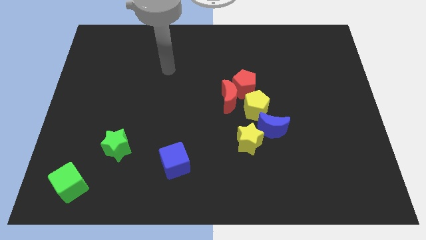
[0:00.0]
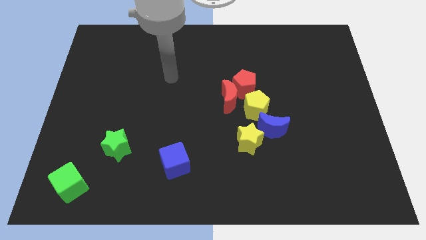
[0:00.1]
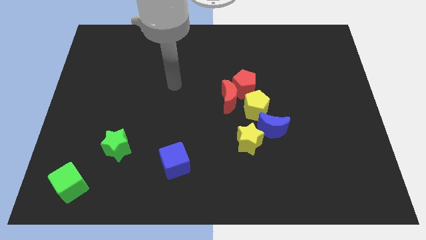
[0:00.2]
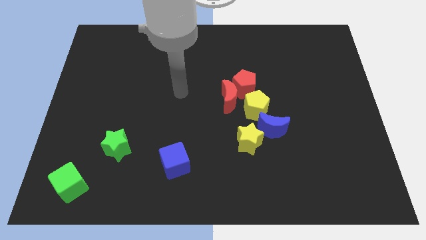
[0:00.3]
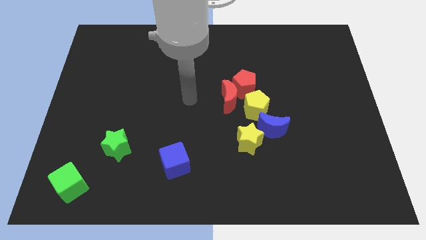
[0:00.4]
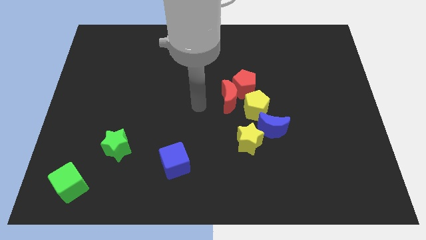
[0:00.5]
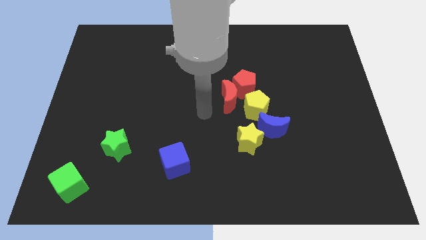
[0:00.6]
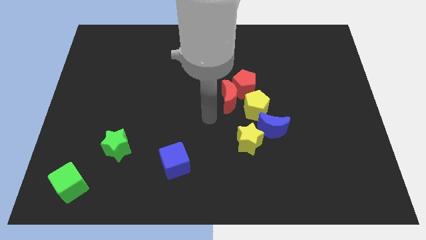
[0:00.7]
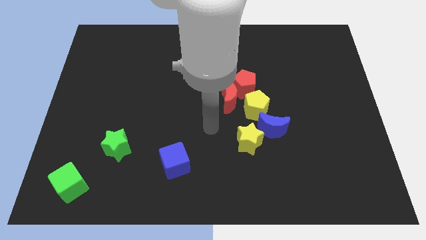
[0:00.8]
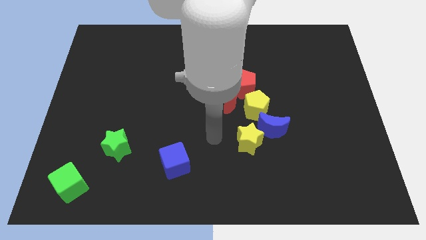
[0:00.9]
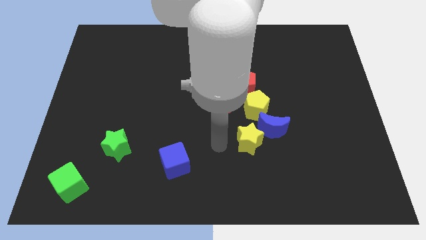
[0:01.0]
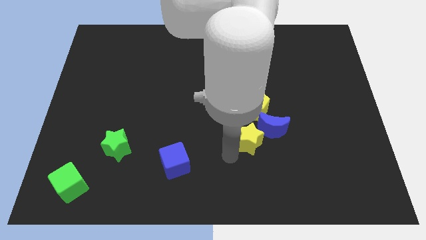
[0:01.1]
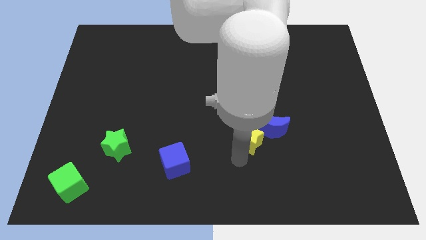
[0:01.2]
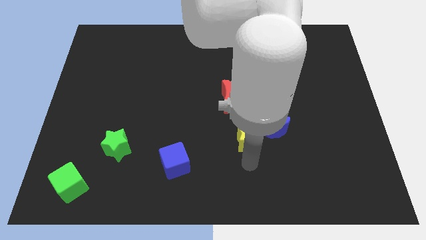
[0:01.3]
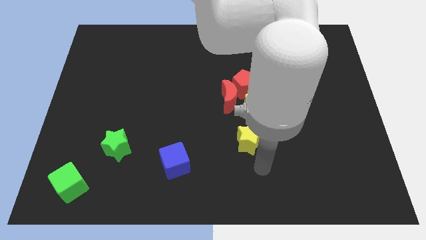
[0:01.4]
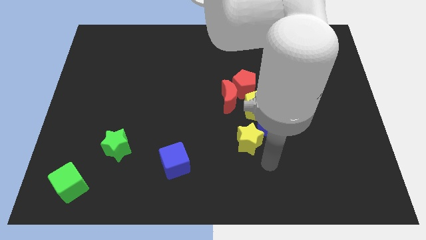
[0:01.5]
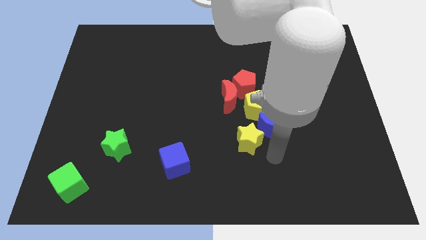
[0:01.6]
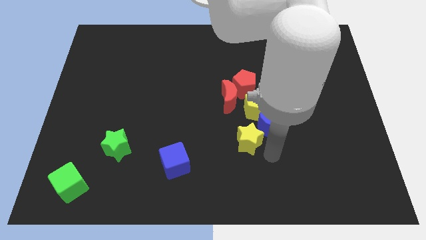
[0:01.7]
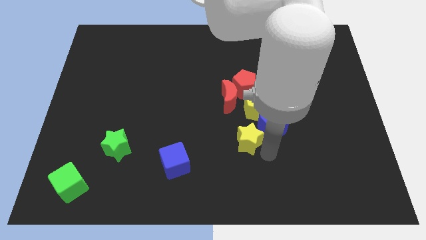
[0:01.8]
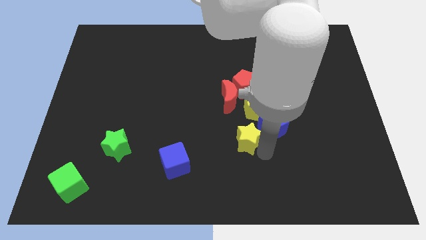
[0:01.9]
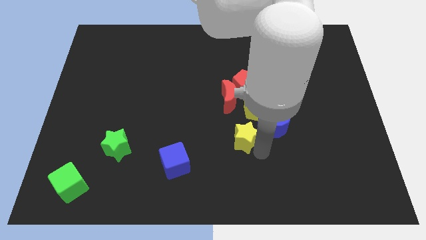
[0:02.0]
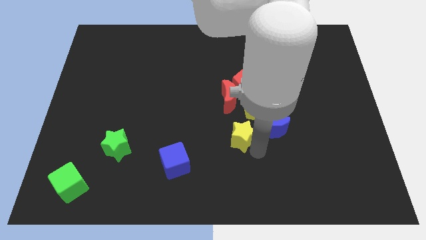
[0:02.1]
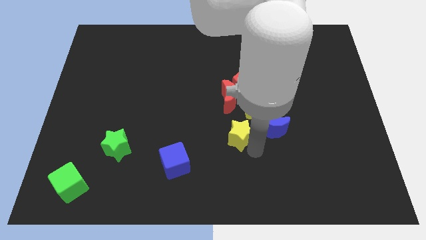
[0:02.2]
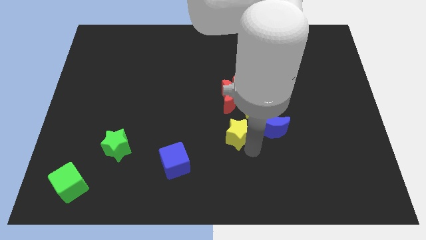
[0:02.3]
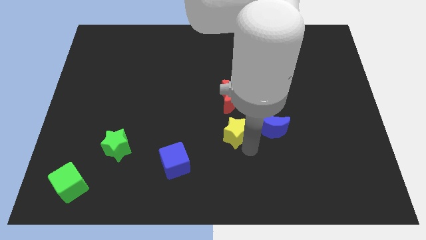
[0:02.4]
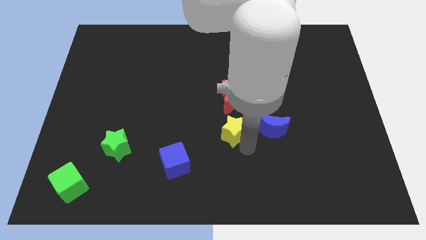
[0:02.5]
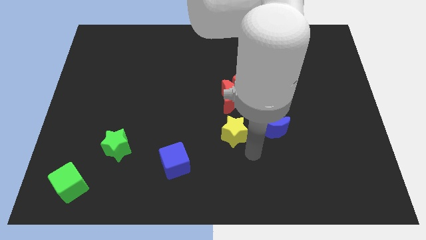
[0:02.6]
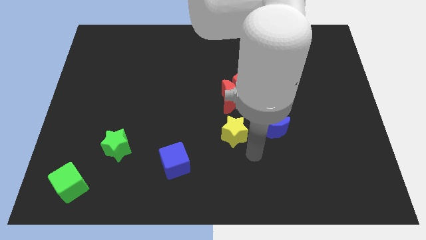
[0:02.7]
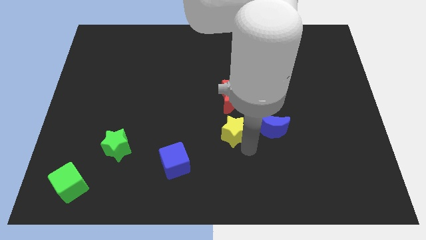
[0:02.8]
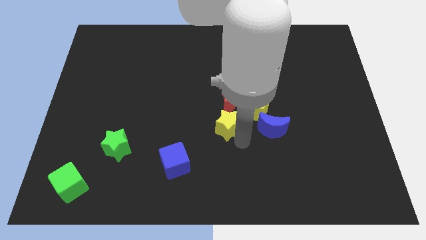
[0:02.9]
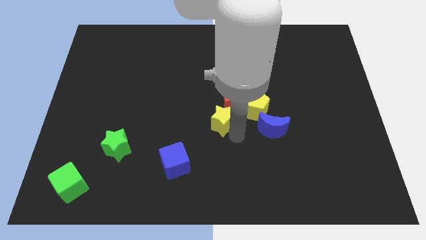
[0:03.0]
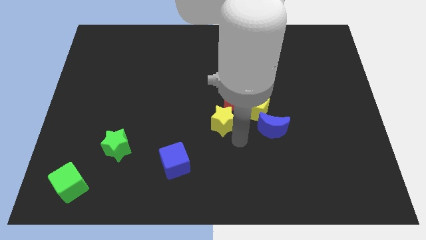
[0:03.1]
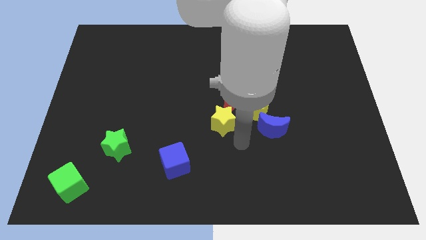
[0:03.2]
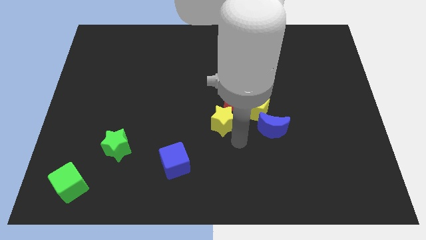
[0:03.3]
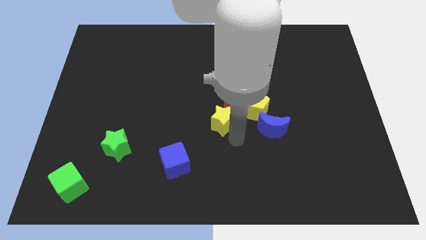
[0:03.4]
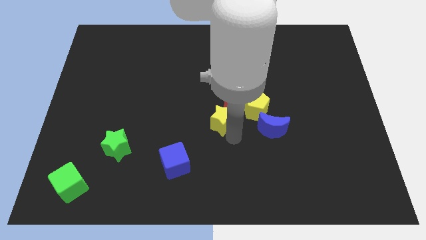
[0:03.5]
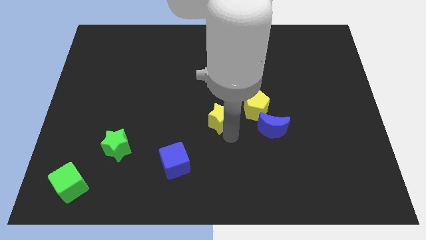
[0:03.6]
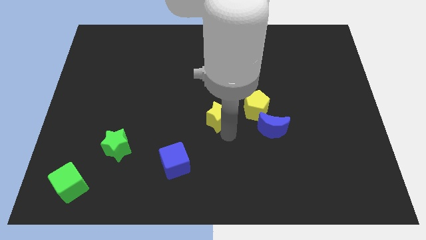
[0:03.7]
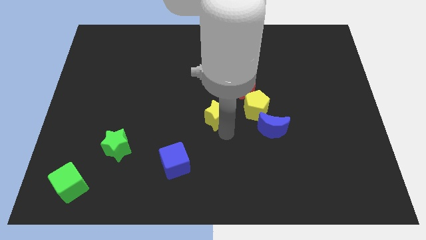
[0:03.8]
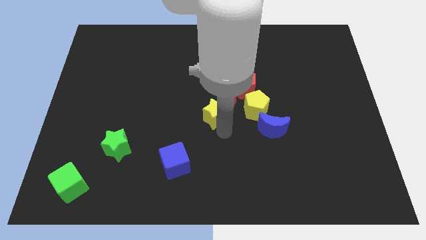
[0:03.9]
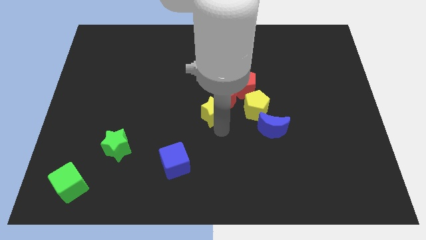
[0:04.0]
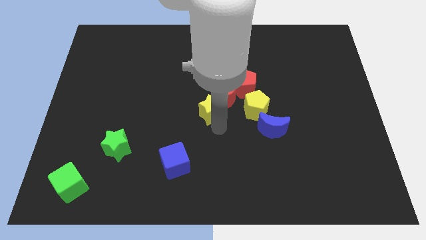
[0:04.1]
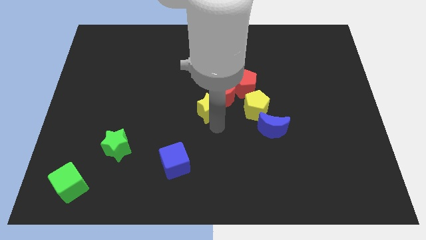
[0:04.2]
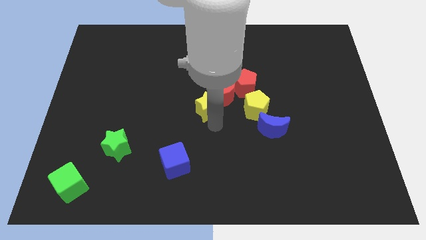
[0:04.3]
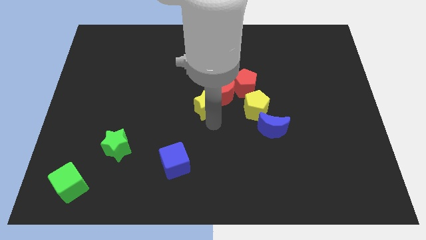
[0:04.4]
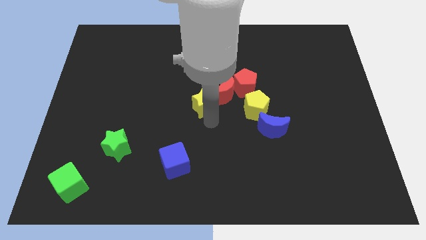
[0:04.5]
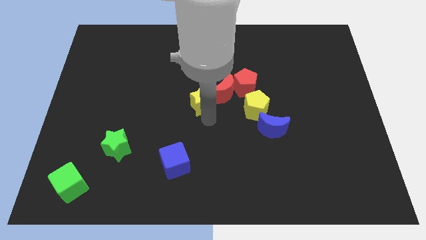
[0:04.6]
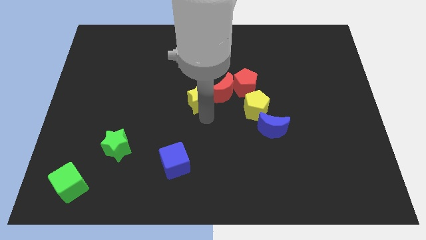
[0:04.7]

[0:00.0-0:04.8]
push the yellow star to the left side of the red pentagon

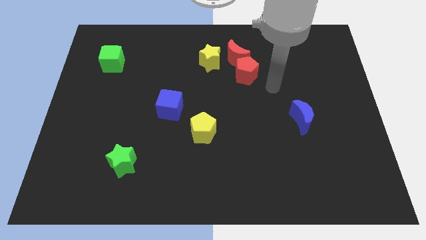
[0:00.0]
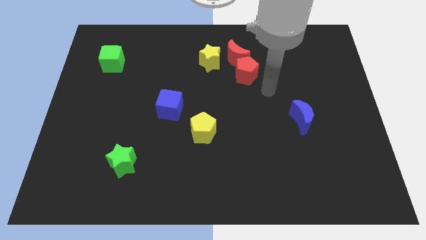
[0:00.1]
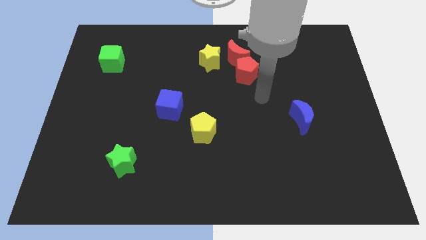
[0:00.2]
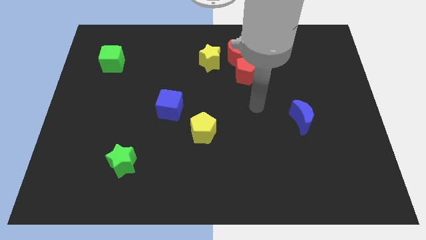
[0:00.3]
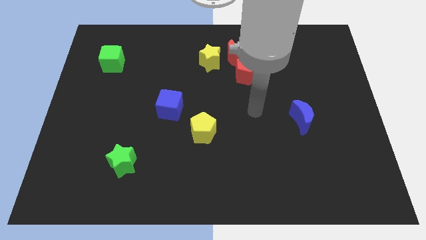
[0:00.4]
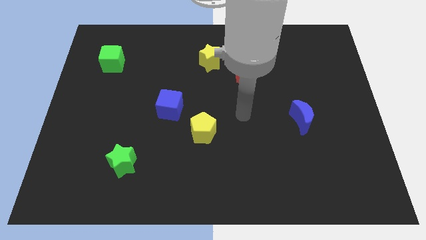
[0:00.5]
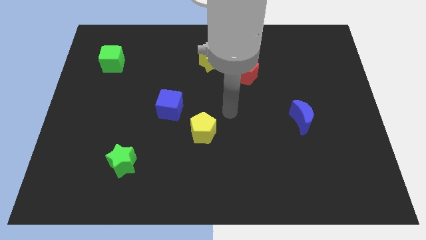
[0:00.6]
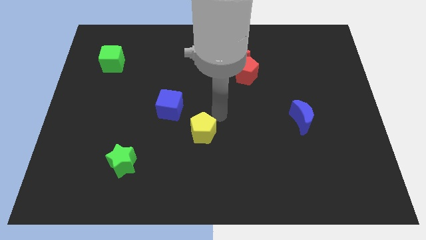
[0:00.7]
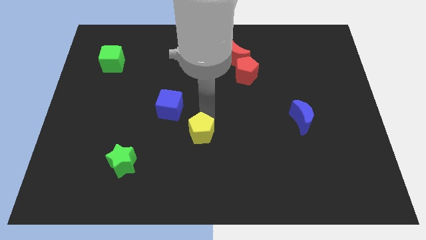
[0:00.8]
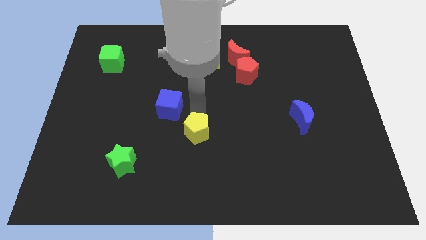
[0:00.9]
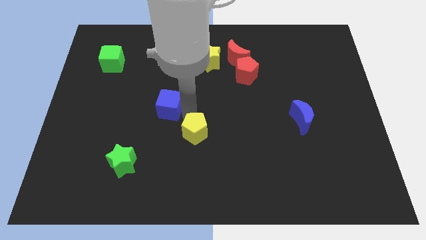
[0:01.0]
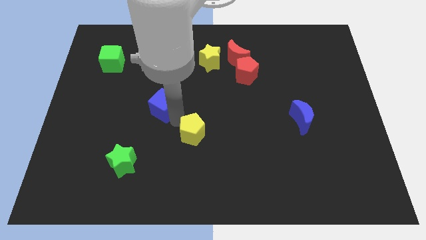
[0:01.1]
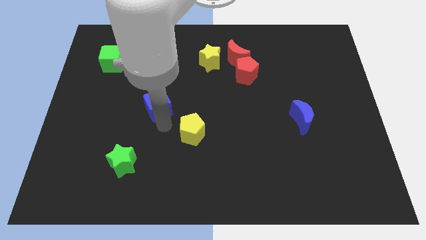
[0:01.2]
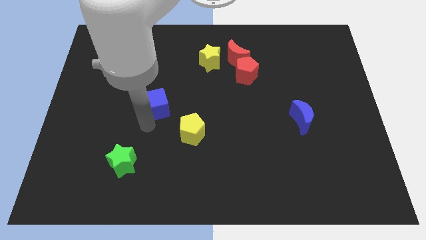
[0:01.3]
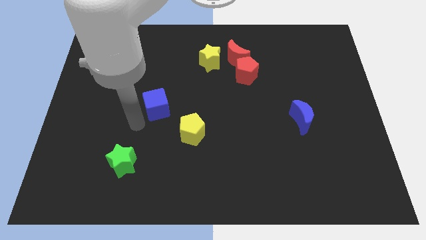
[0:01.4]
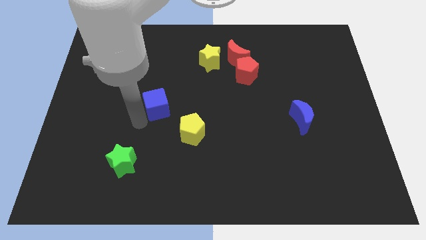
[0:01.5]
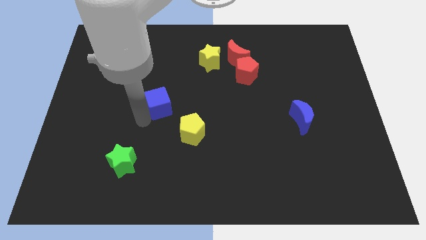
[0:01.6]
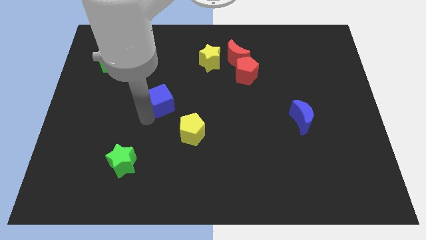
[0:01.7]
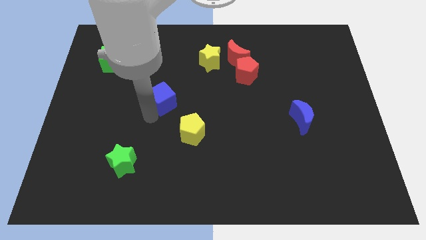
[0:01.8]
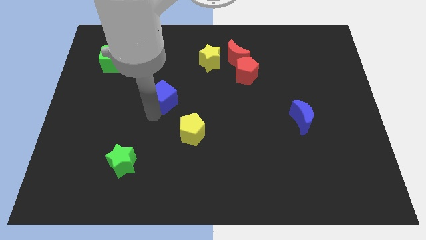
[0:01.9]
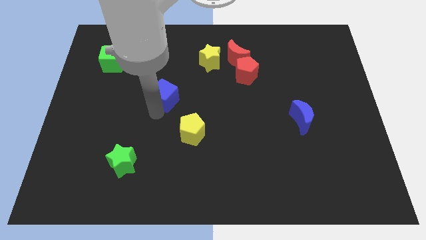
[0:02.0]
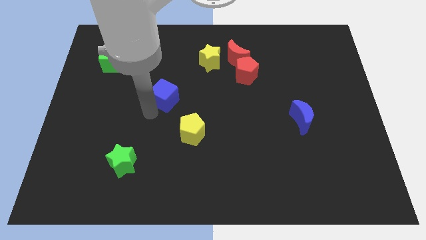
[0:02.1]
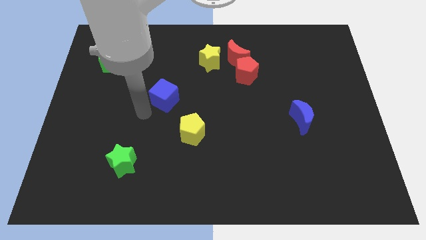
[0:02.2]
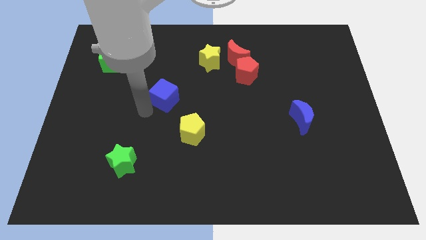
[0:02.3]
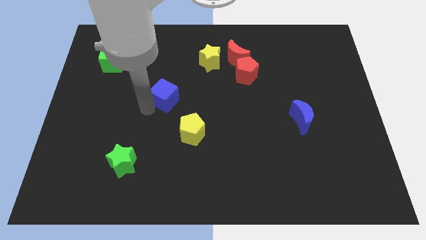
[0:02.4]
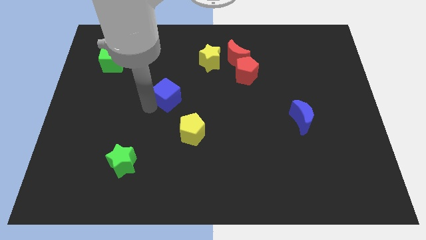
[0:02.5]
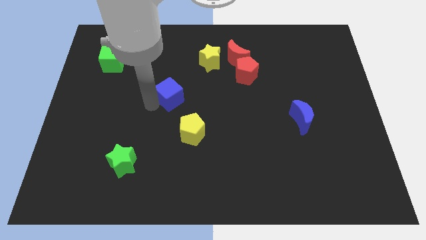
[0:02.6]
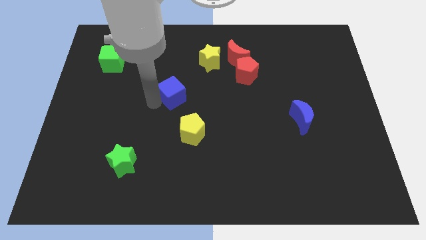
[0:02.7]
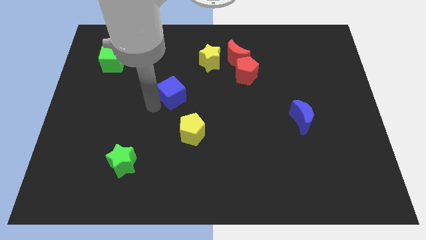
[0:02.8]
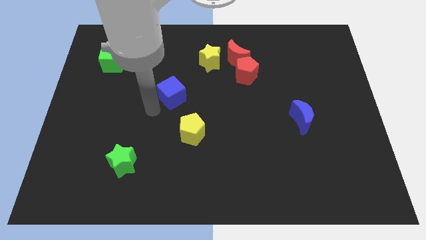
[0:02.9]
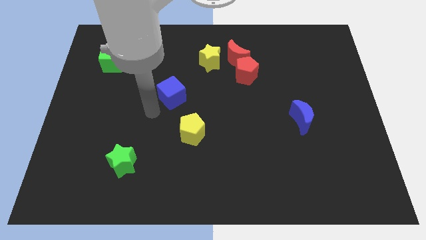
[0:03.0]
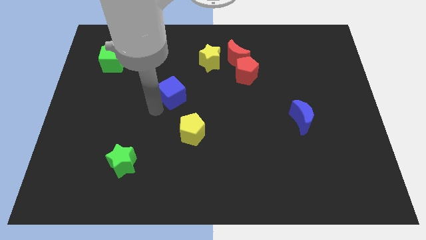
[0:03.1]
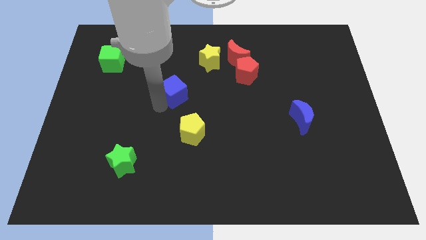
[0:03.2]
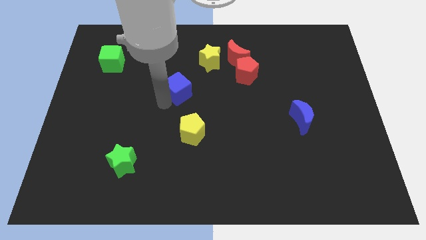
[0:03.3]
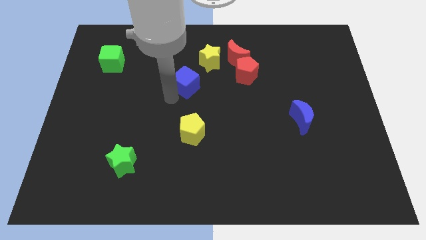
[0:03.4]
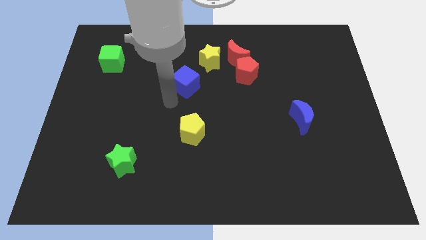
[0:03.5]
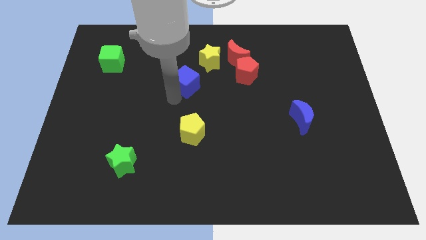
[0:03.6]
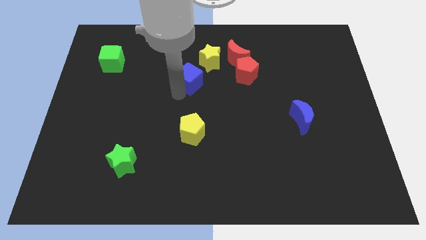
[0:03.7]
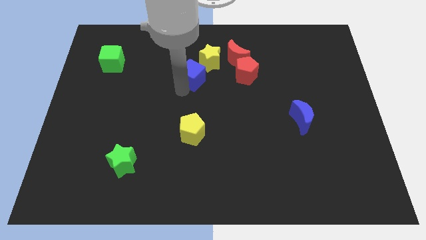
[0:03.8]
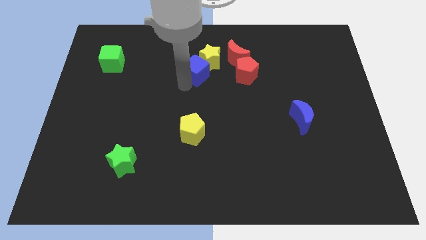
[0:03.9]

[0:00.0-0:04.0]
put the blue cube to the bottom left of the red moon
